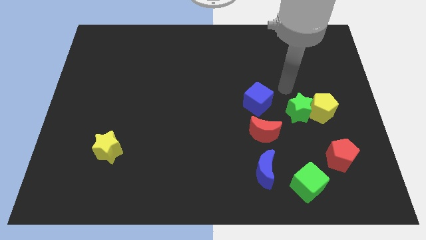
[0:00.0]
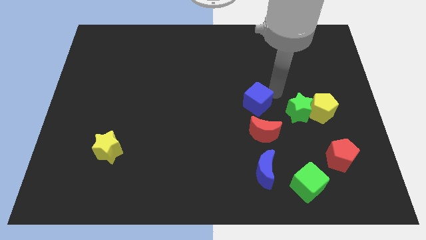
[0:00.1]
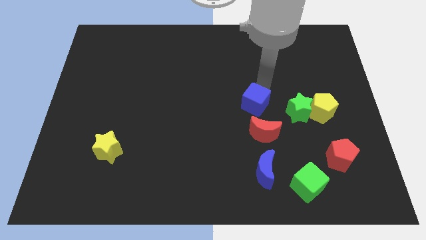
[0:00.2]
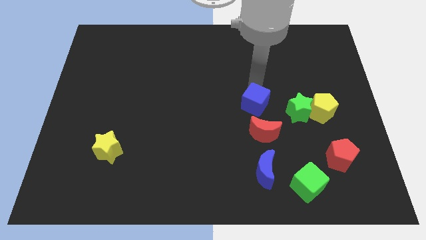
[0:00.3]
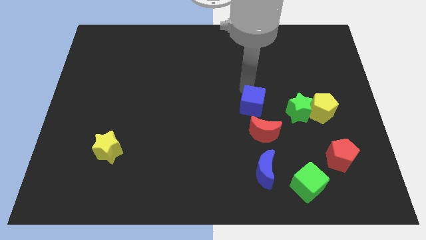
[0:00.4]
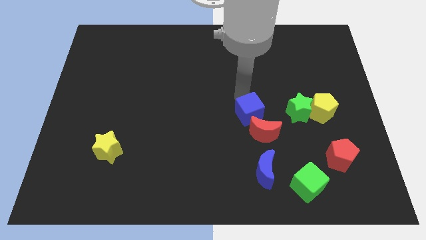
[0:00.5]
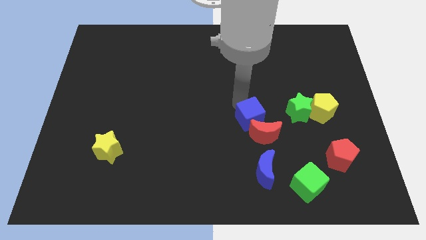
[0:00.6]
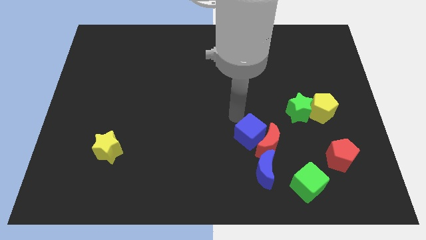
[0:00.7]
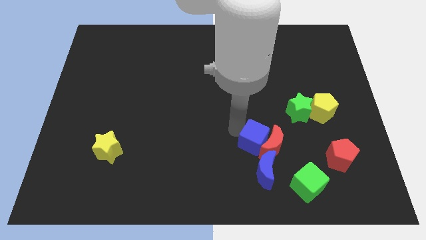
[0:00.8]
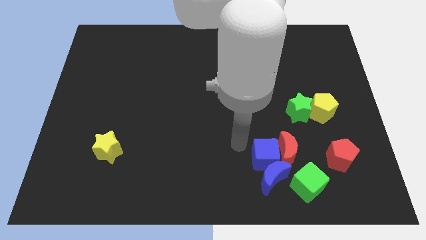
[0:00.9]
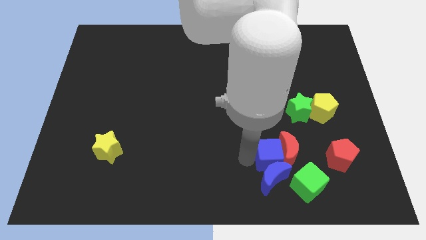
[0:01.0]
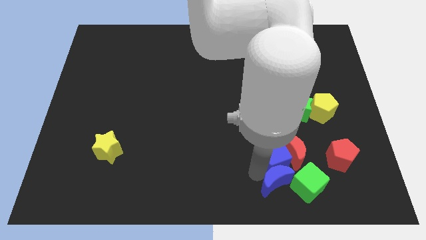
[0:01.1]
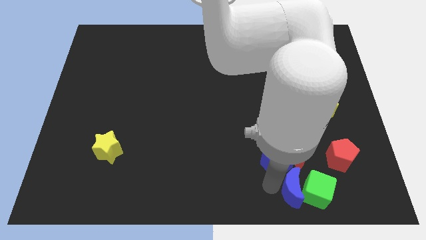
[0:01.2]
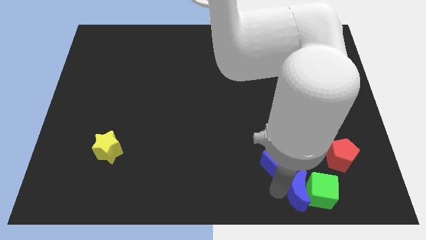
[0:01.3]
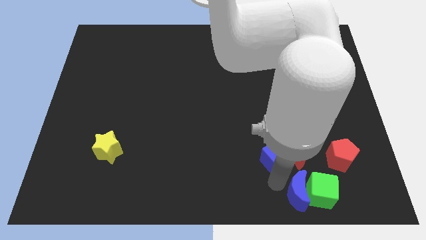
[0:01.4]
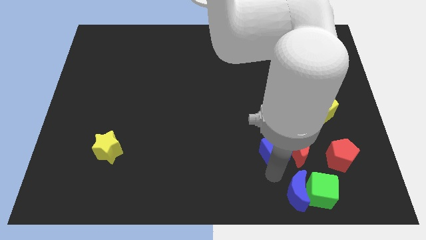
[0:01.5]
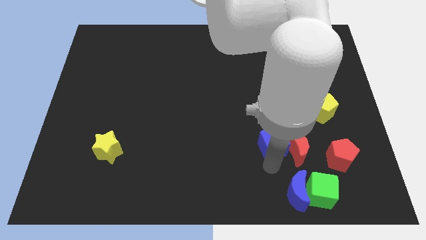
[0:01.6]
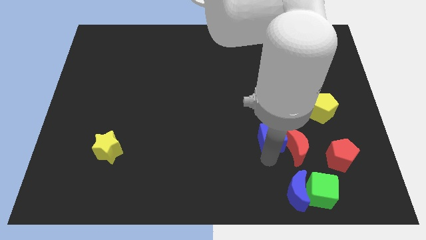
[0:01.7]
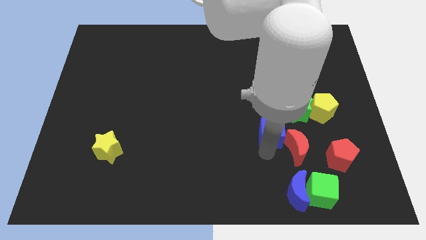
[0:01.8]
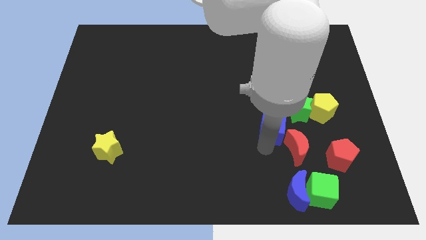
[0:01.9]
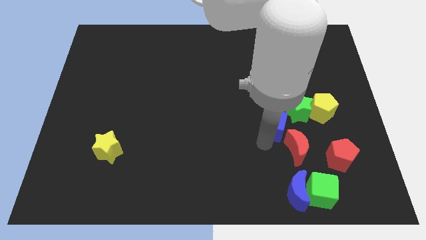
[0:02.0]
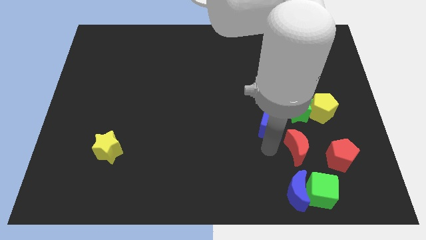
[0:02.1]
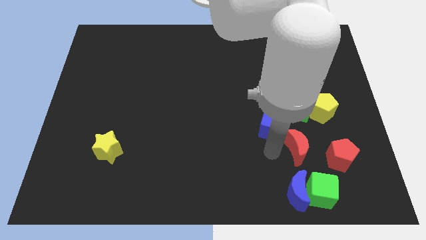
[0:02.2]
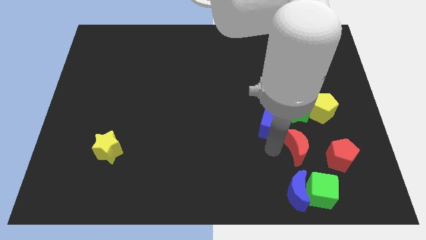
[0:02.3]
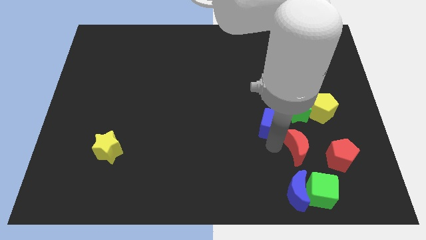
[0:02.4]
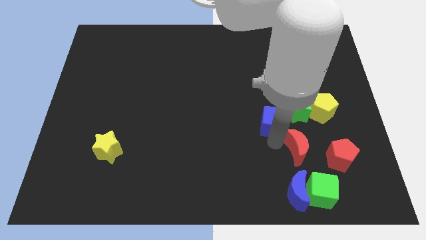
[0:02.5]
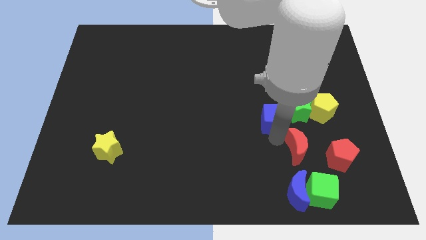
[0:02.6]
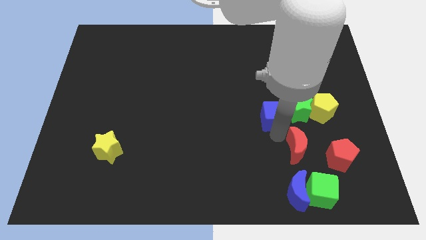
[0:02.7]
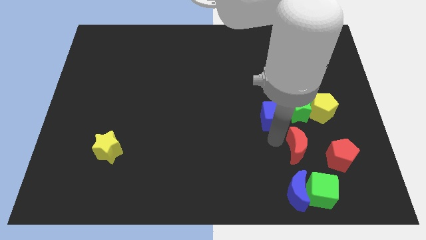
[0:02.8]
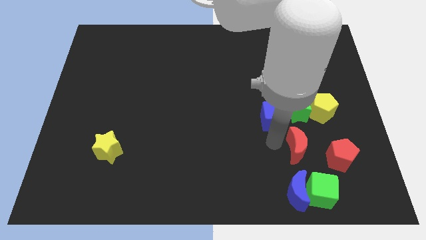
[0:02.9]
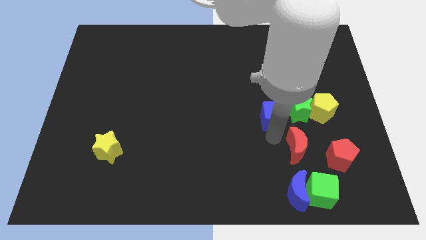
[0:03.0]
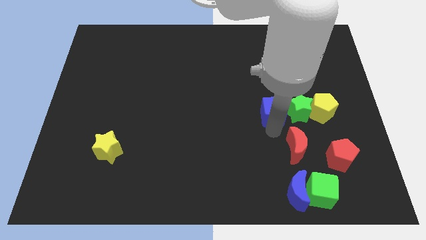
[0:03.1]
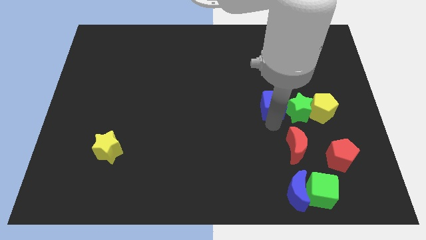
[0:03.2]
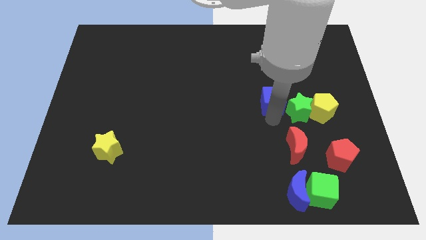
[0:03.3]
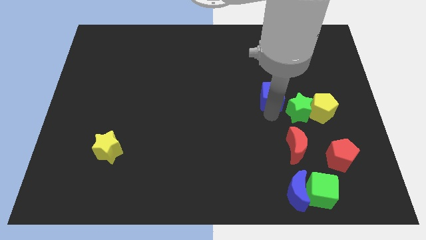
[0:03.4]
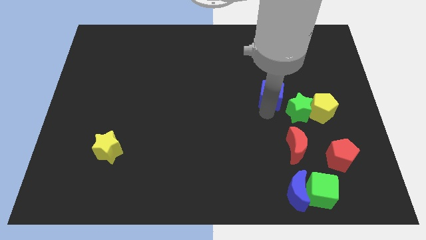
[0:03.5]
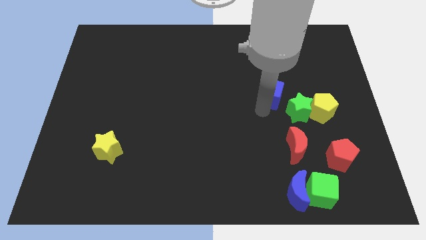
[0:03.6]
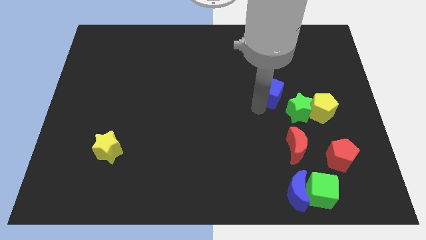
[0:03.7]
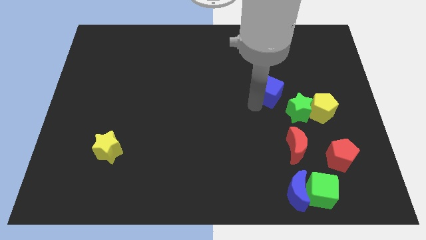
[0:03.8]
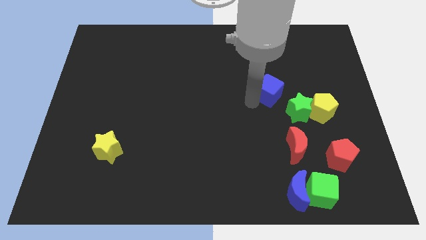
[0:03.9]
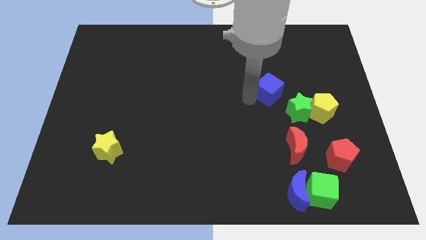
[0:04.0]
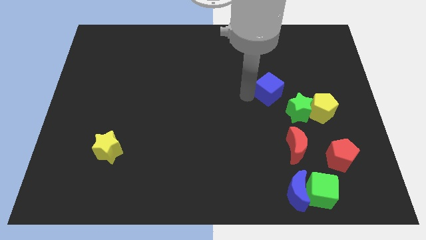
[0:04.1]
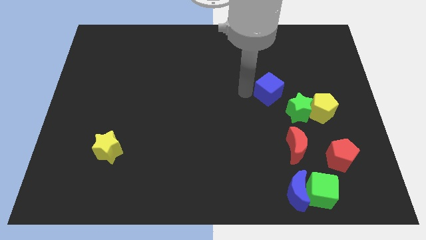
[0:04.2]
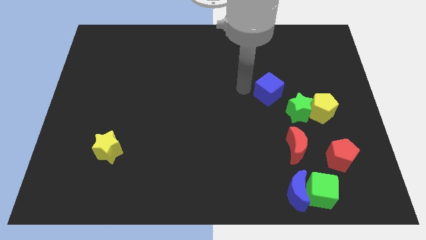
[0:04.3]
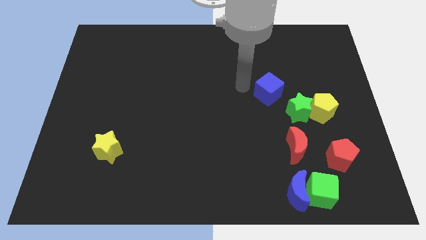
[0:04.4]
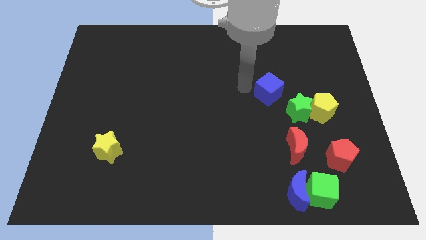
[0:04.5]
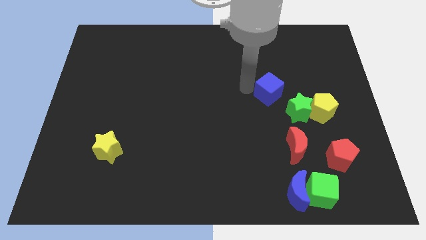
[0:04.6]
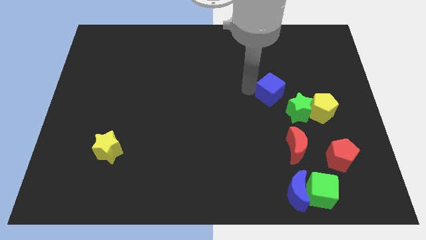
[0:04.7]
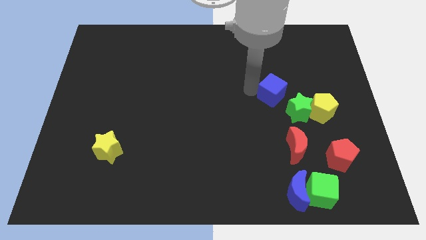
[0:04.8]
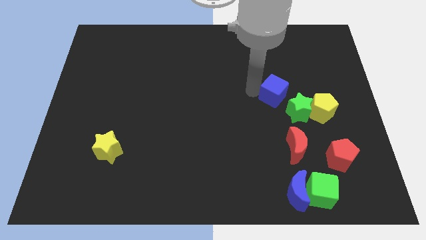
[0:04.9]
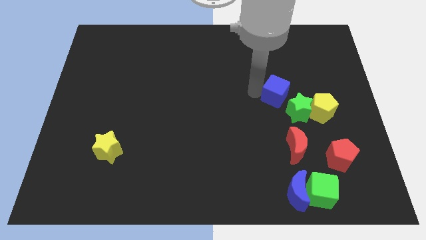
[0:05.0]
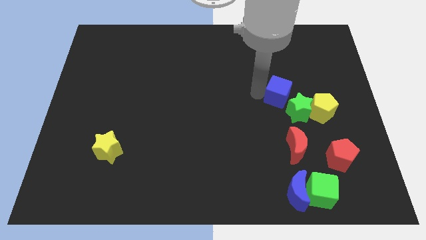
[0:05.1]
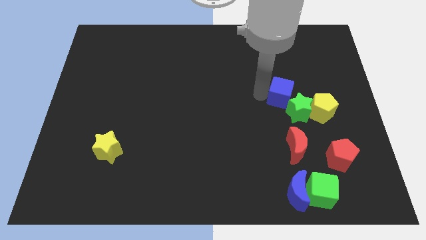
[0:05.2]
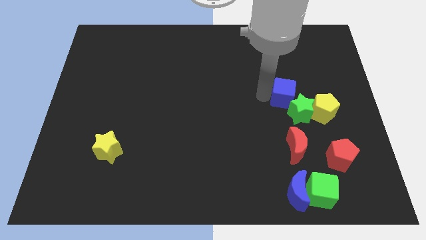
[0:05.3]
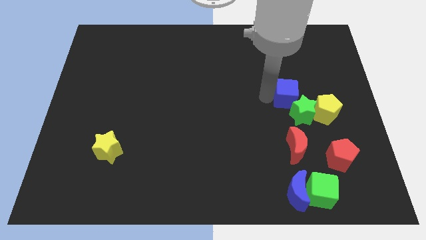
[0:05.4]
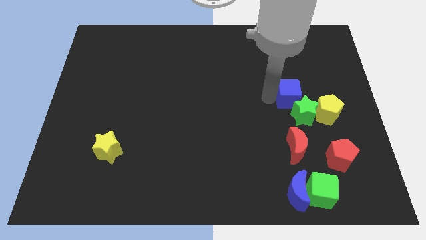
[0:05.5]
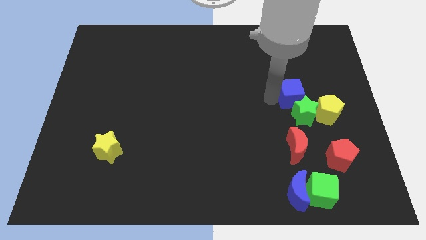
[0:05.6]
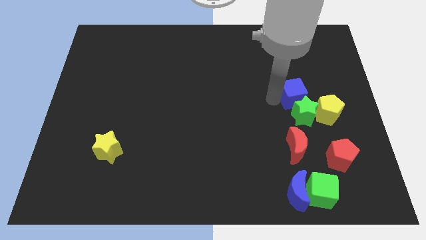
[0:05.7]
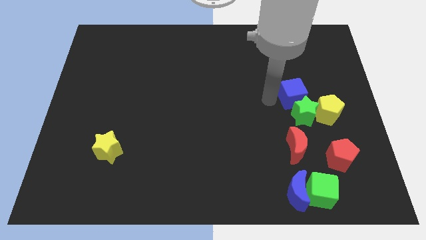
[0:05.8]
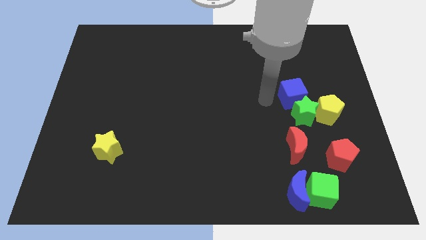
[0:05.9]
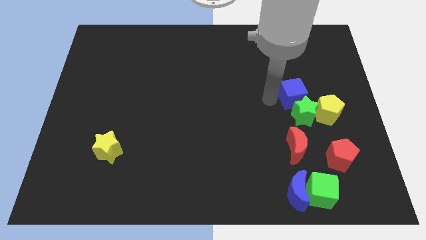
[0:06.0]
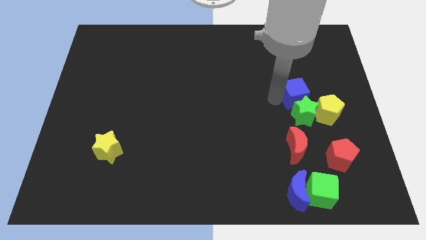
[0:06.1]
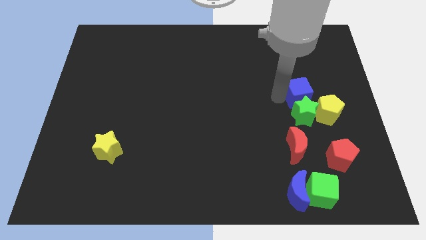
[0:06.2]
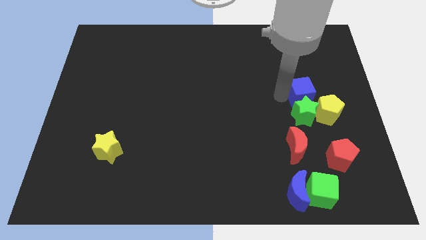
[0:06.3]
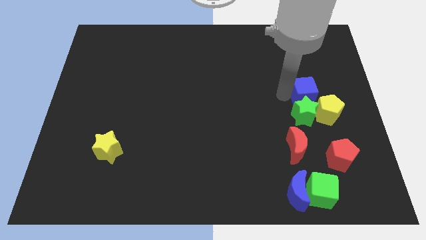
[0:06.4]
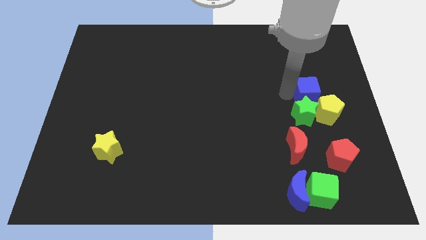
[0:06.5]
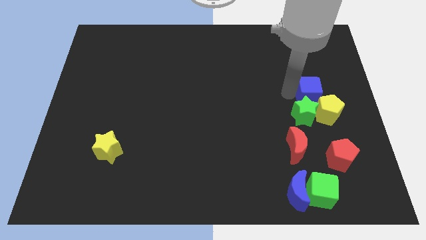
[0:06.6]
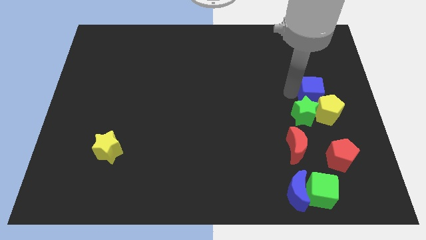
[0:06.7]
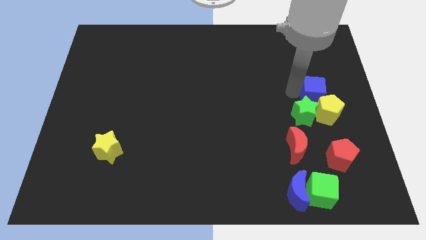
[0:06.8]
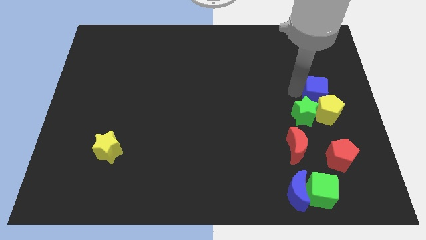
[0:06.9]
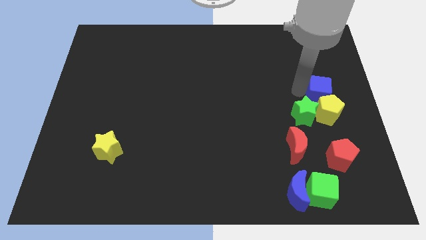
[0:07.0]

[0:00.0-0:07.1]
move the blue cube to the right side of the board
